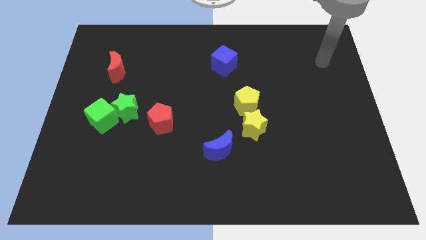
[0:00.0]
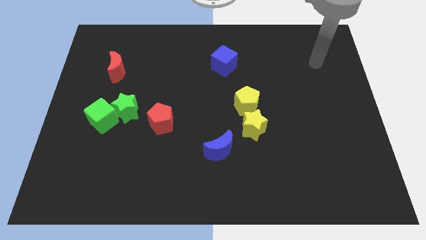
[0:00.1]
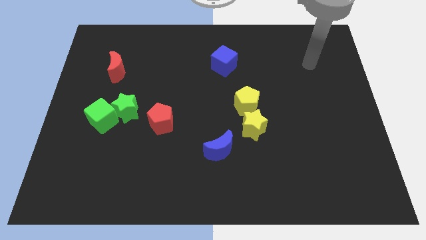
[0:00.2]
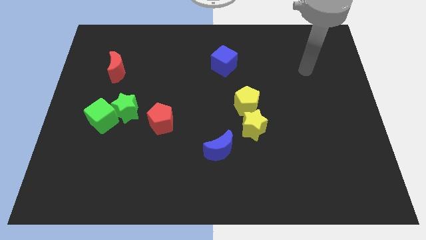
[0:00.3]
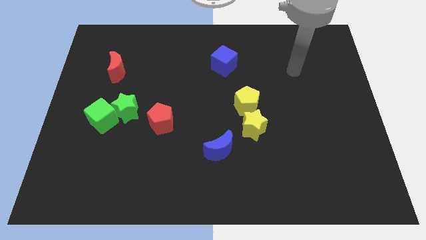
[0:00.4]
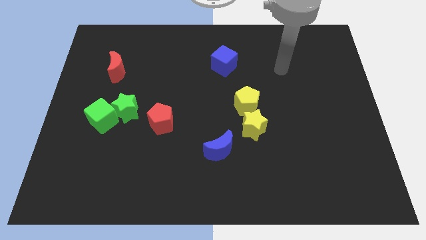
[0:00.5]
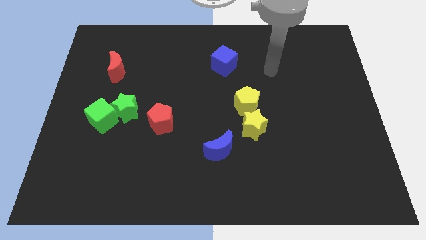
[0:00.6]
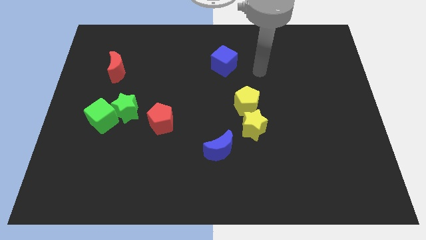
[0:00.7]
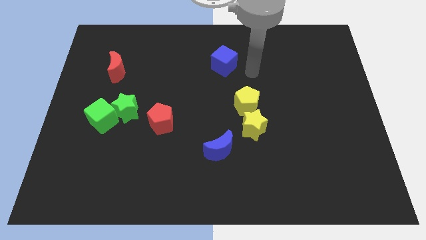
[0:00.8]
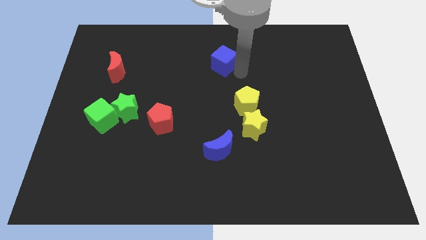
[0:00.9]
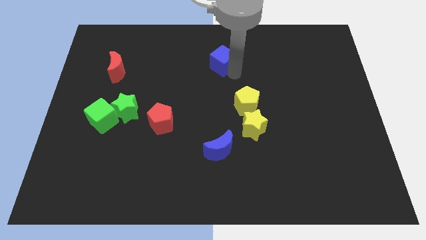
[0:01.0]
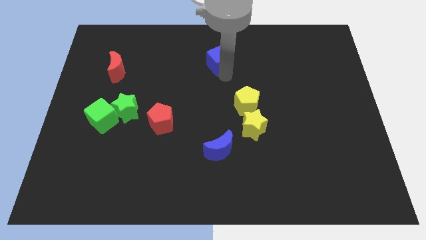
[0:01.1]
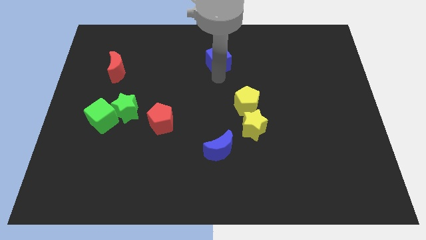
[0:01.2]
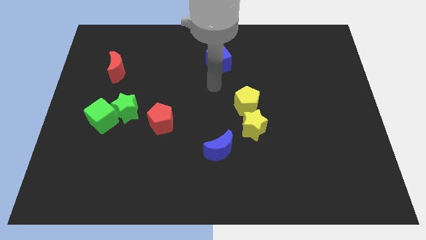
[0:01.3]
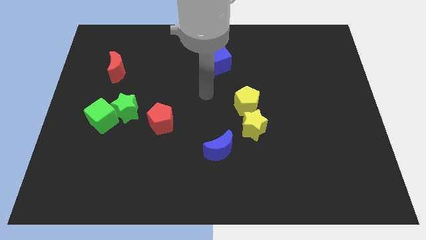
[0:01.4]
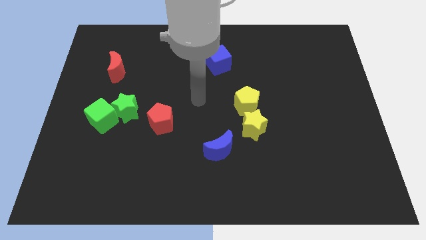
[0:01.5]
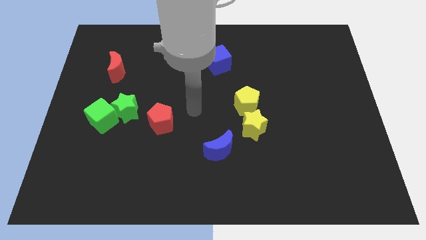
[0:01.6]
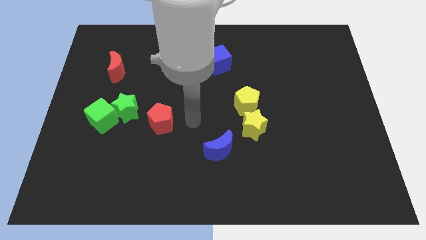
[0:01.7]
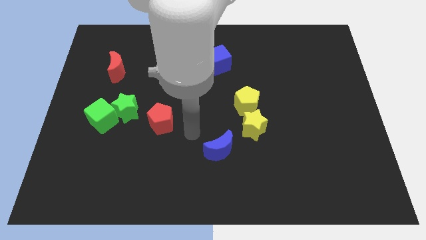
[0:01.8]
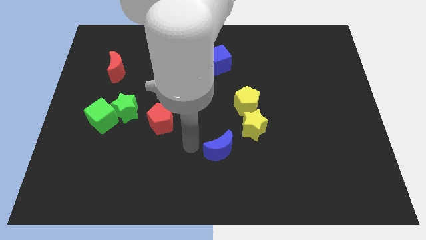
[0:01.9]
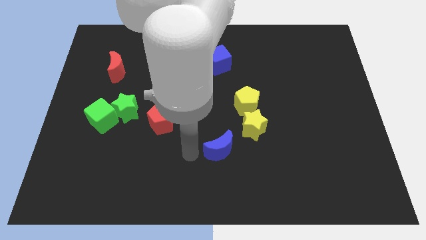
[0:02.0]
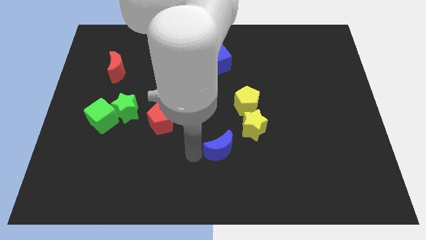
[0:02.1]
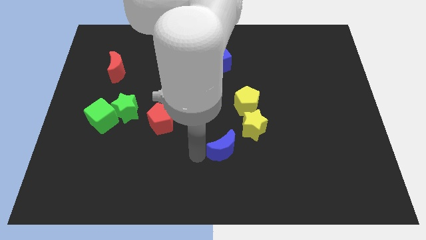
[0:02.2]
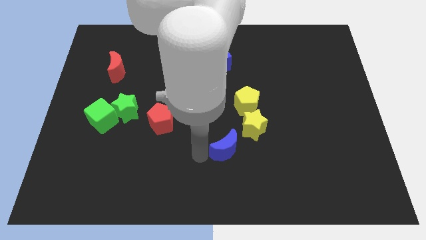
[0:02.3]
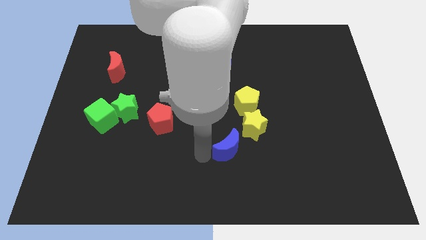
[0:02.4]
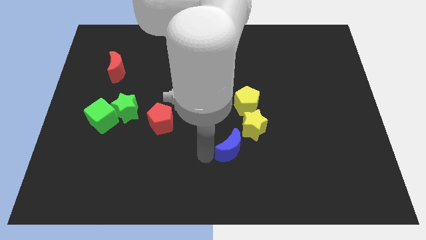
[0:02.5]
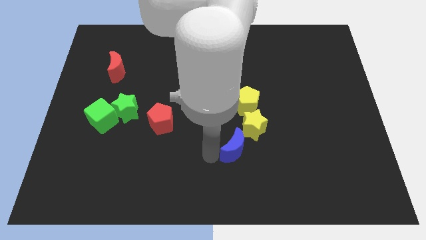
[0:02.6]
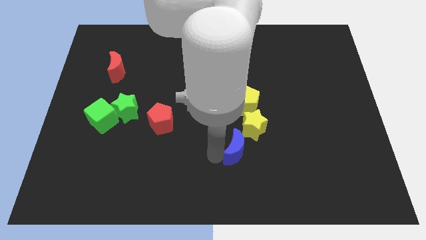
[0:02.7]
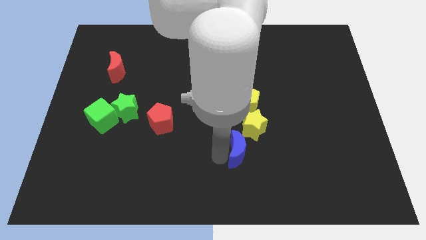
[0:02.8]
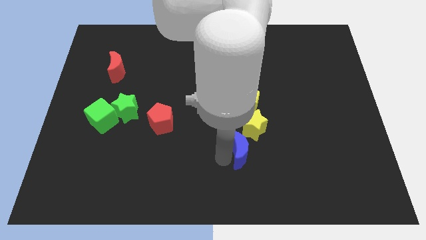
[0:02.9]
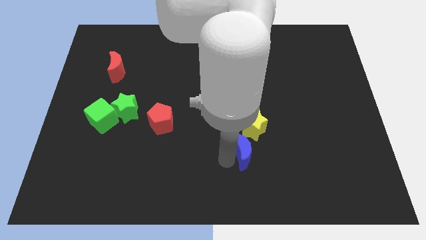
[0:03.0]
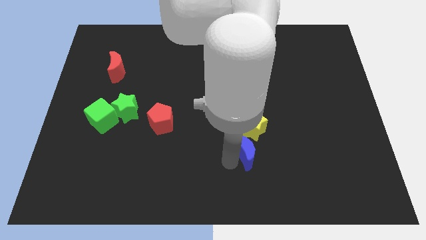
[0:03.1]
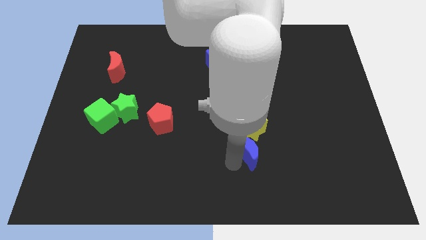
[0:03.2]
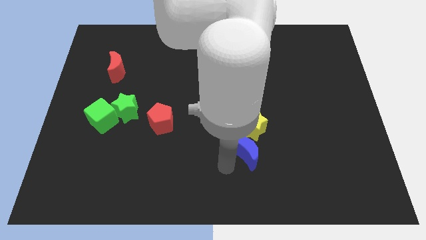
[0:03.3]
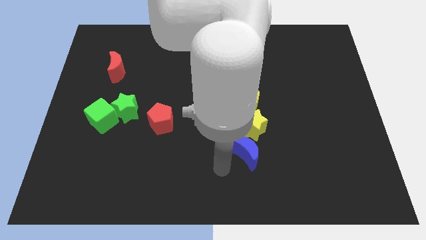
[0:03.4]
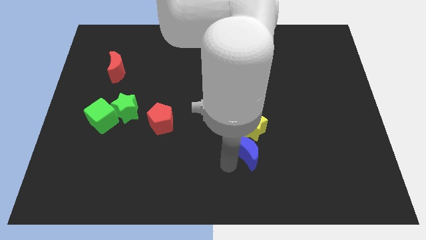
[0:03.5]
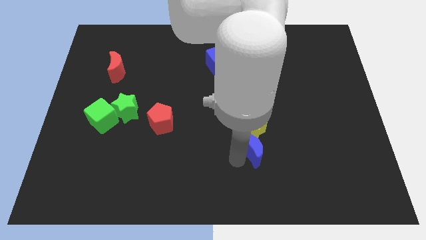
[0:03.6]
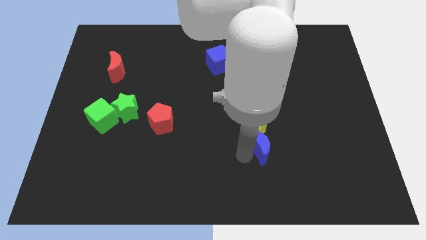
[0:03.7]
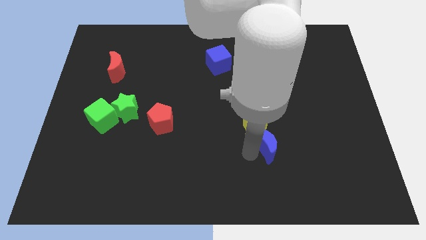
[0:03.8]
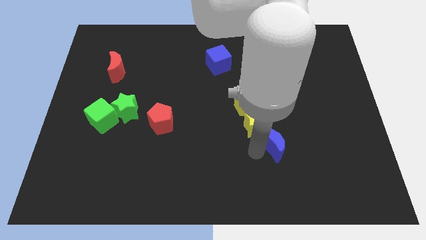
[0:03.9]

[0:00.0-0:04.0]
slightly slide the blue moon upwards and then to the right

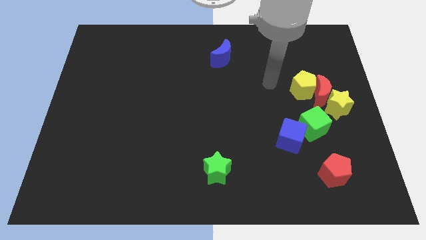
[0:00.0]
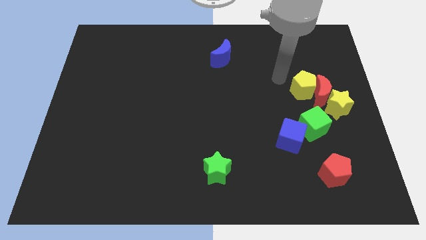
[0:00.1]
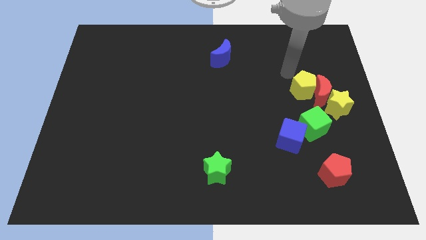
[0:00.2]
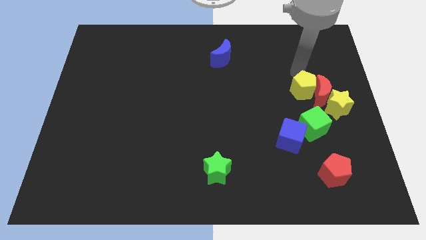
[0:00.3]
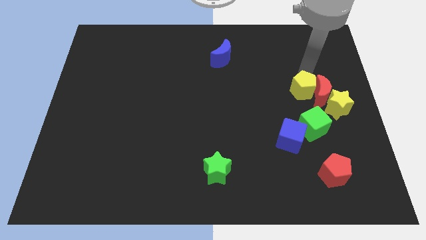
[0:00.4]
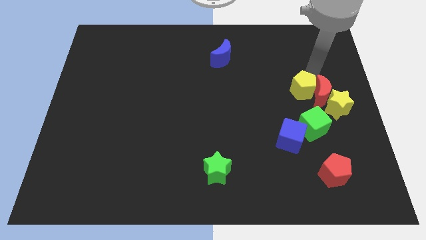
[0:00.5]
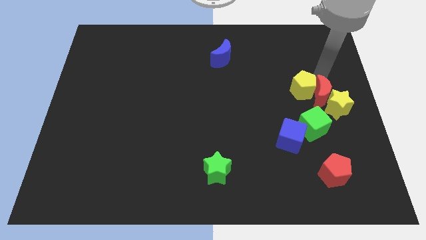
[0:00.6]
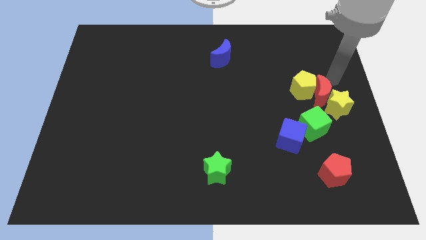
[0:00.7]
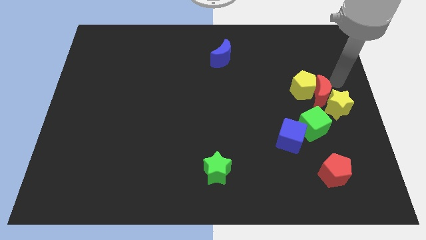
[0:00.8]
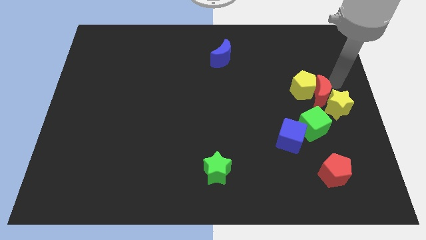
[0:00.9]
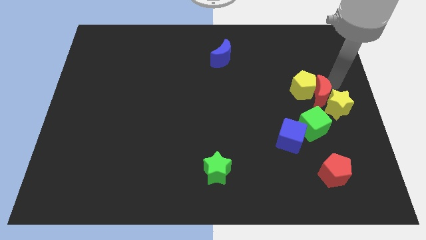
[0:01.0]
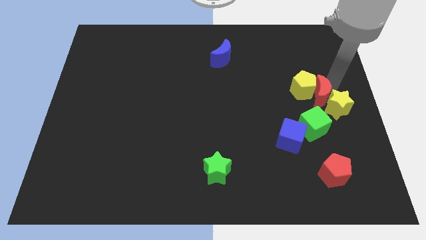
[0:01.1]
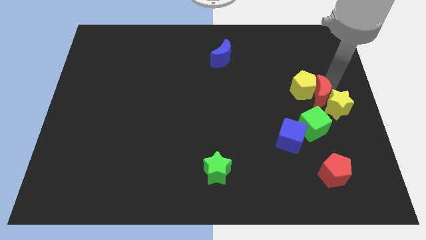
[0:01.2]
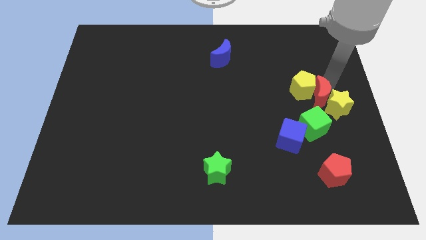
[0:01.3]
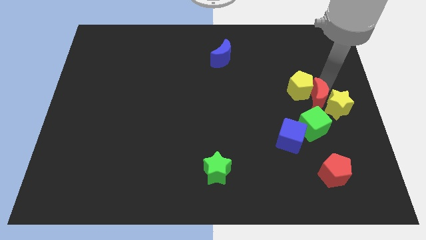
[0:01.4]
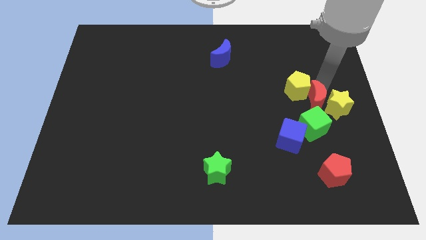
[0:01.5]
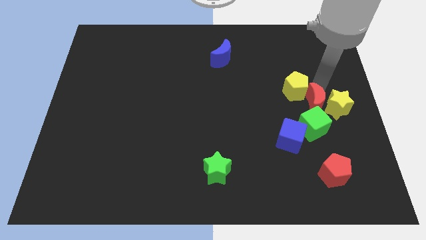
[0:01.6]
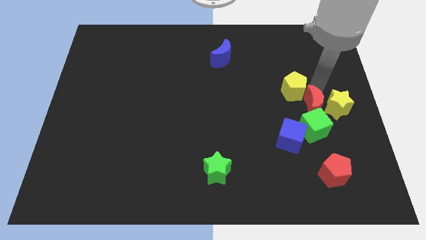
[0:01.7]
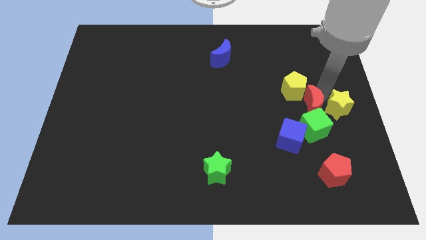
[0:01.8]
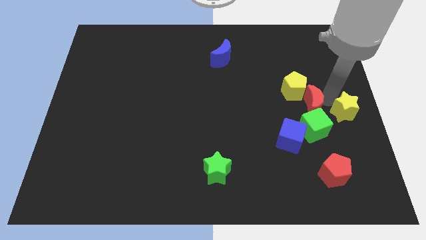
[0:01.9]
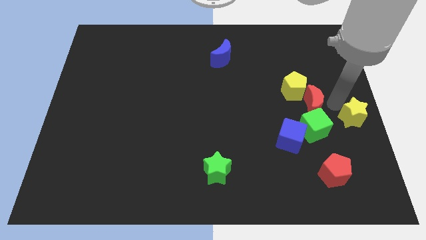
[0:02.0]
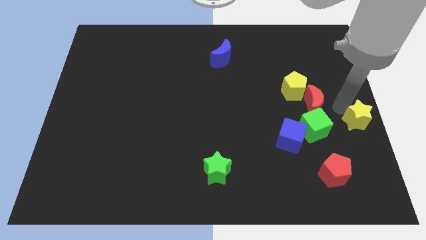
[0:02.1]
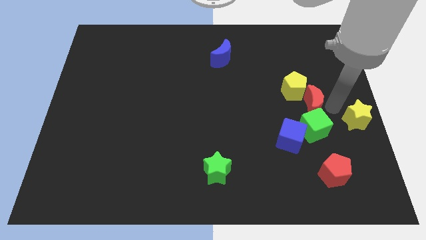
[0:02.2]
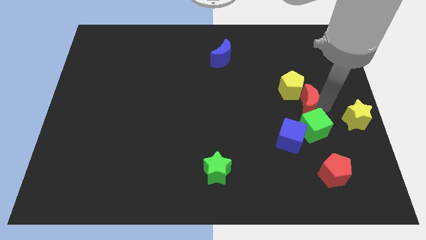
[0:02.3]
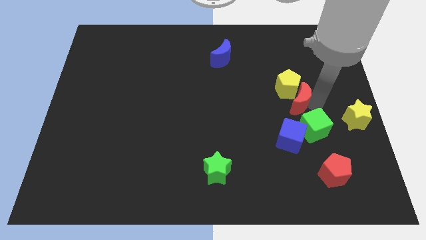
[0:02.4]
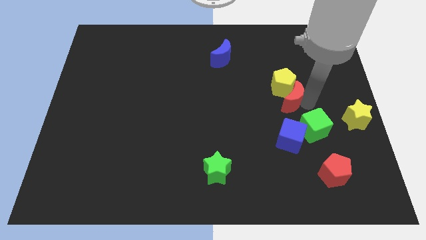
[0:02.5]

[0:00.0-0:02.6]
slightly move the red moon left

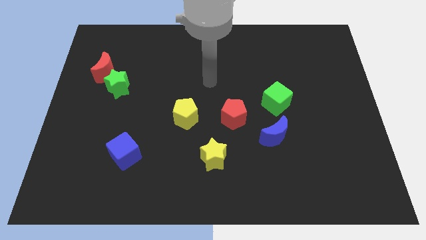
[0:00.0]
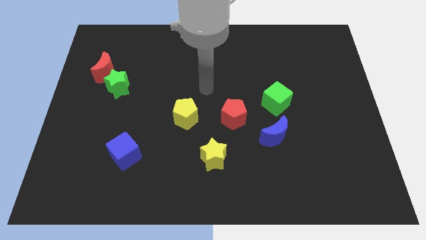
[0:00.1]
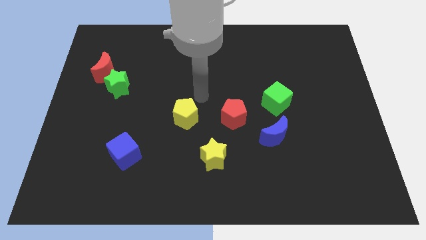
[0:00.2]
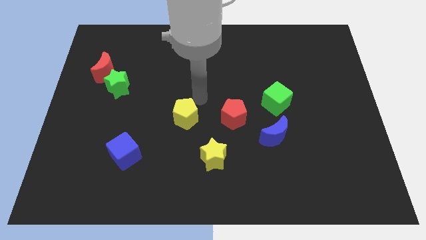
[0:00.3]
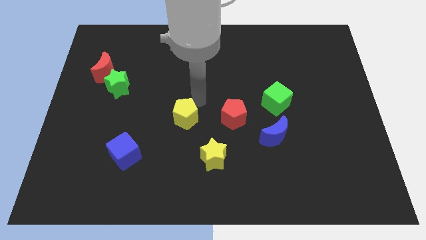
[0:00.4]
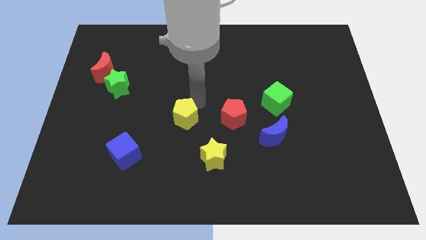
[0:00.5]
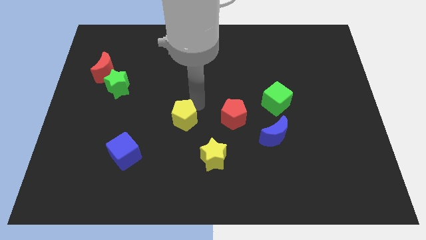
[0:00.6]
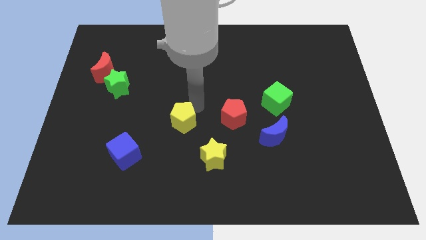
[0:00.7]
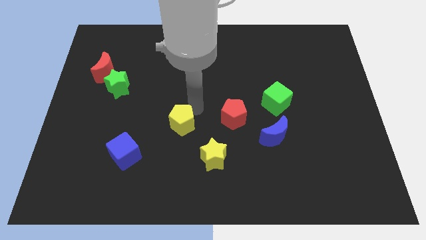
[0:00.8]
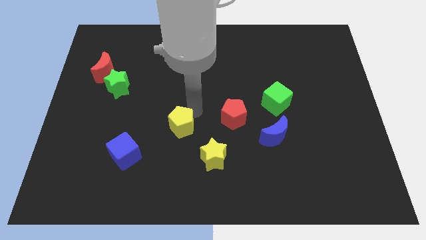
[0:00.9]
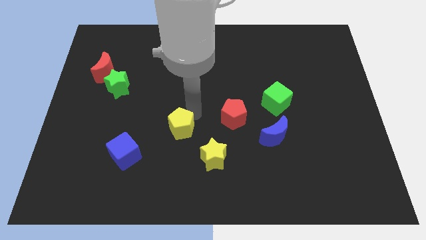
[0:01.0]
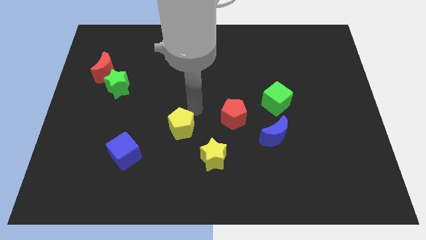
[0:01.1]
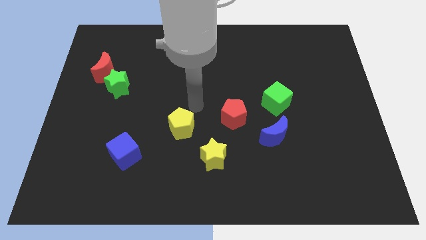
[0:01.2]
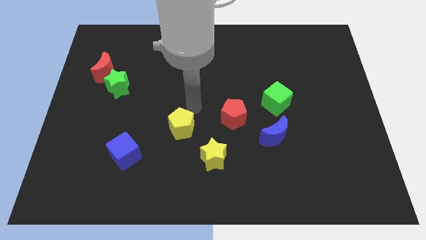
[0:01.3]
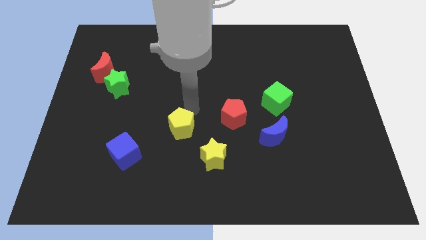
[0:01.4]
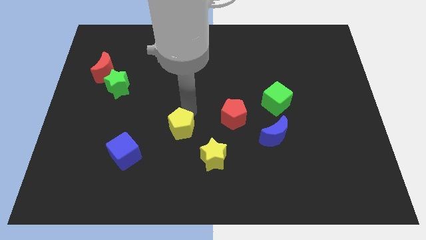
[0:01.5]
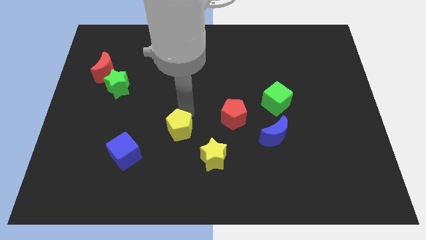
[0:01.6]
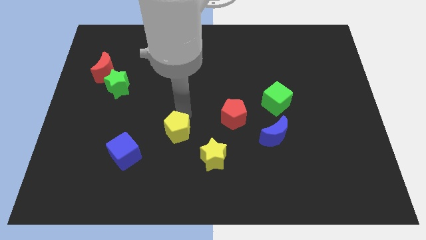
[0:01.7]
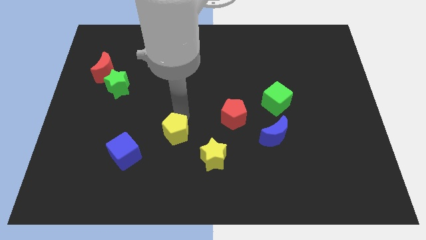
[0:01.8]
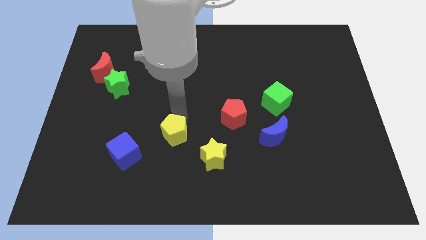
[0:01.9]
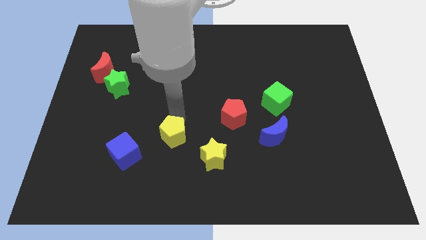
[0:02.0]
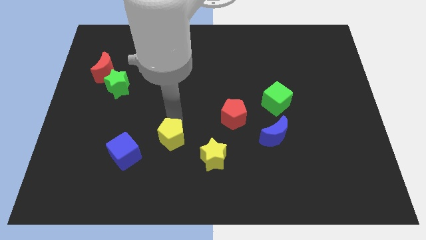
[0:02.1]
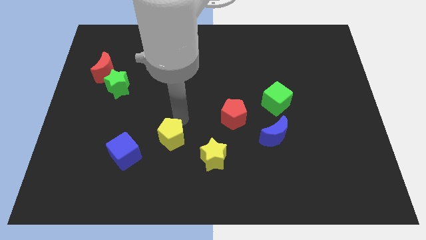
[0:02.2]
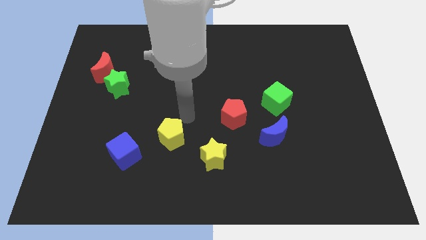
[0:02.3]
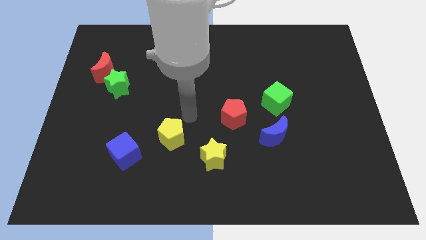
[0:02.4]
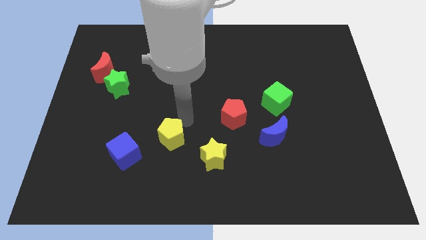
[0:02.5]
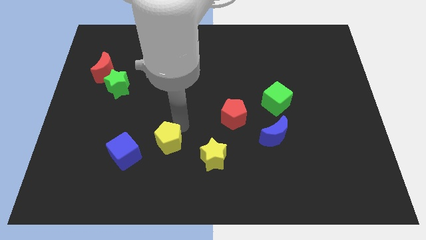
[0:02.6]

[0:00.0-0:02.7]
slide the yellow pentagon downwards and left a little bit
